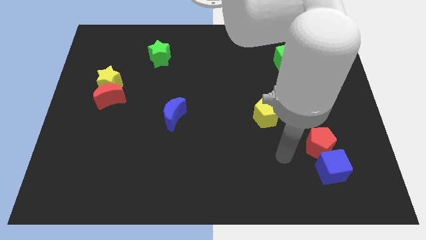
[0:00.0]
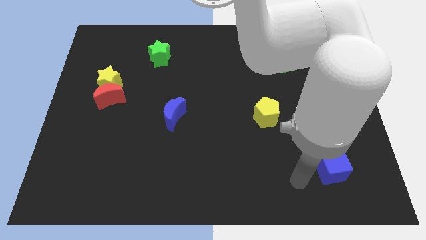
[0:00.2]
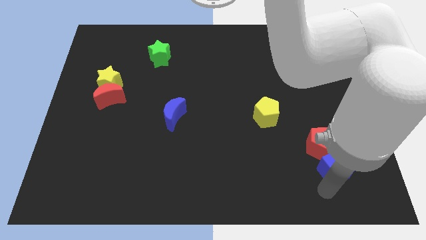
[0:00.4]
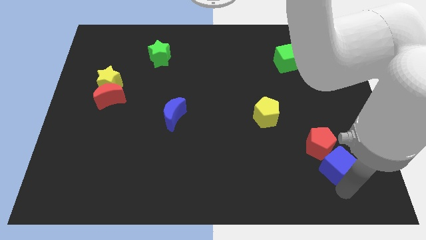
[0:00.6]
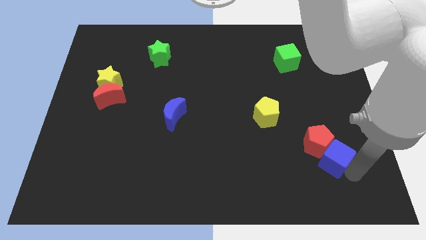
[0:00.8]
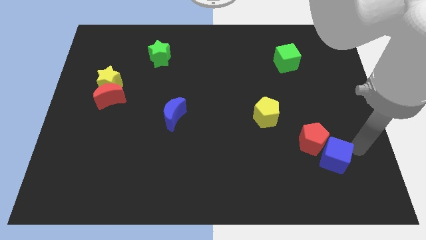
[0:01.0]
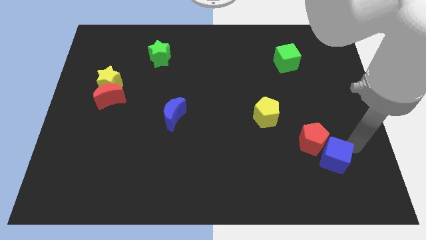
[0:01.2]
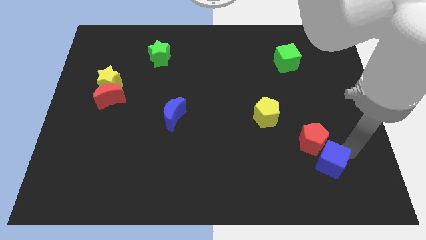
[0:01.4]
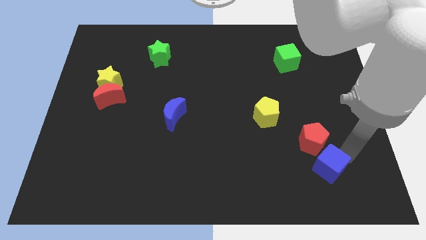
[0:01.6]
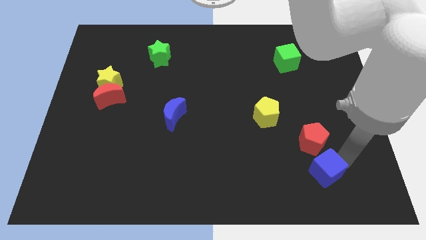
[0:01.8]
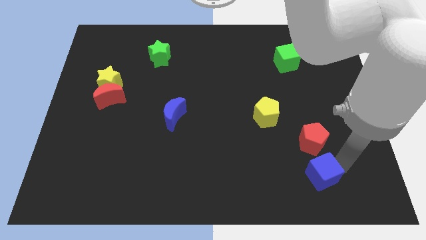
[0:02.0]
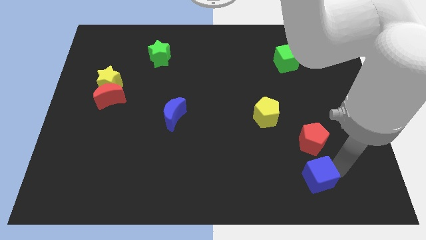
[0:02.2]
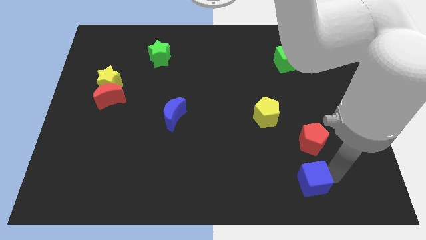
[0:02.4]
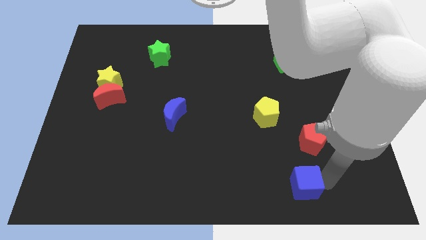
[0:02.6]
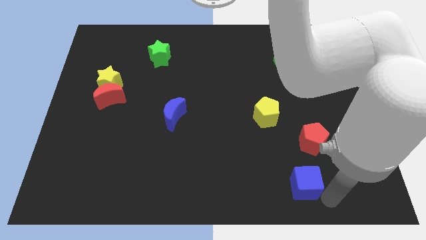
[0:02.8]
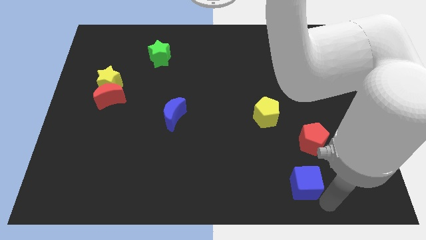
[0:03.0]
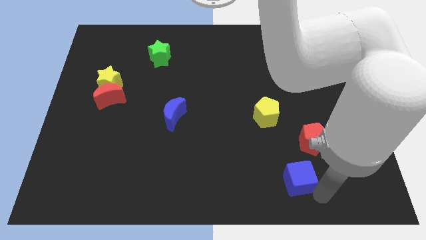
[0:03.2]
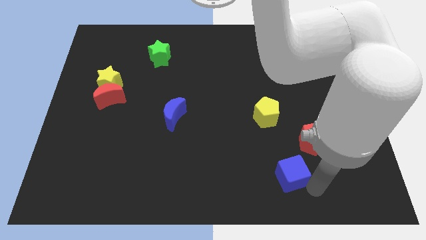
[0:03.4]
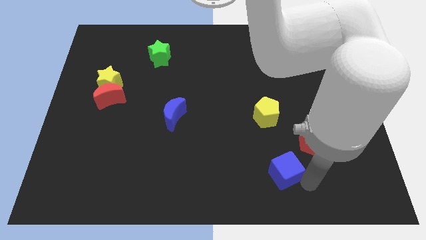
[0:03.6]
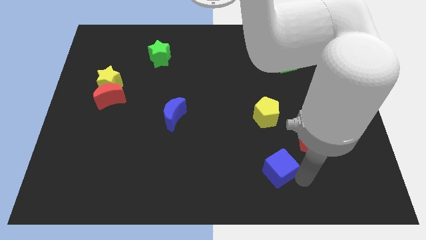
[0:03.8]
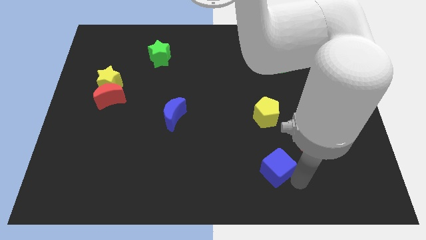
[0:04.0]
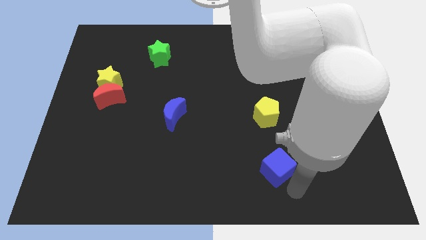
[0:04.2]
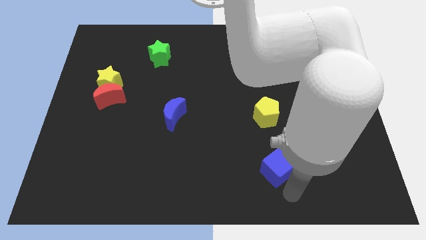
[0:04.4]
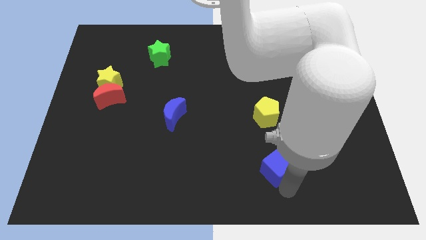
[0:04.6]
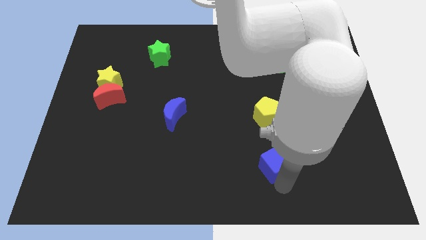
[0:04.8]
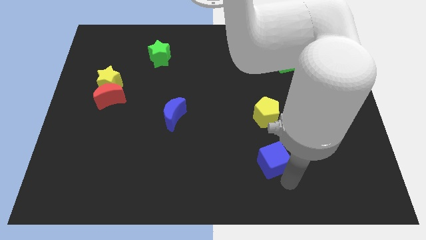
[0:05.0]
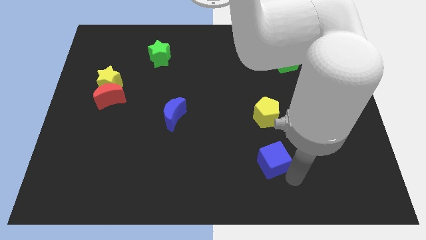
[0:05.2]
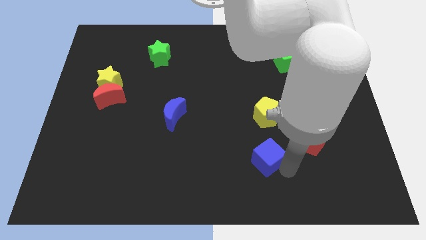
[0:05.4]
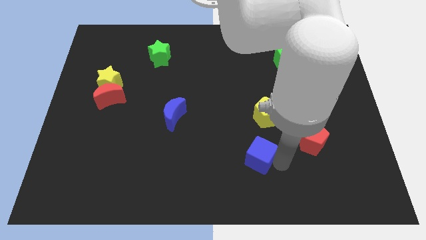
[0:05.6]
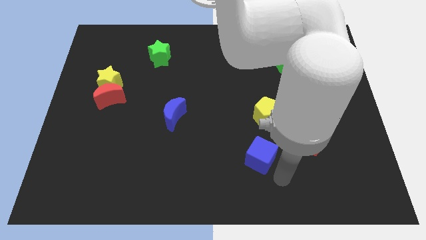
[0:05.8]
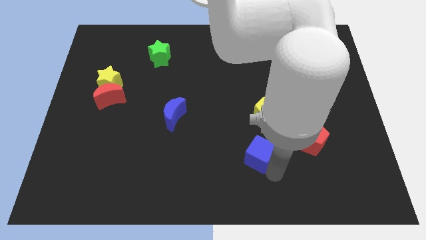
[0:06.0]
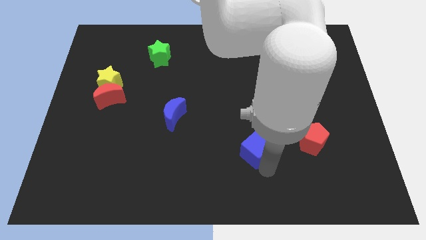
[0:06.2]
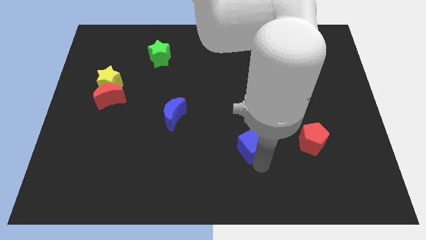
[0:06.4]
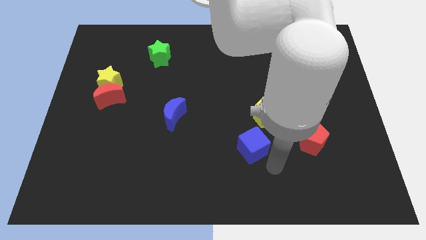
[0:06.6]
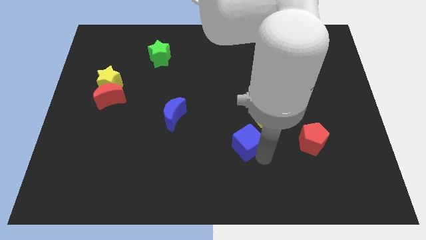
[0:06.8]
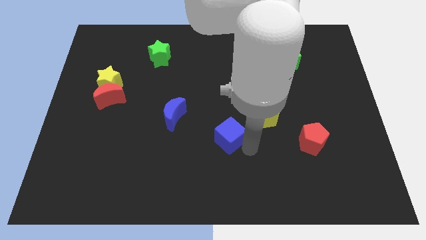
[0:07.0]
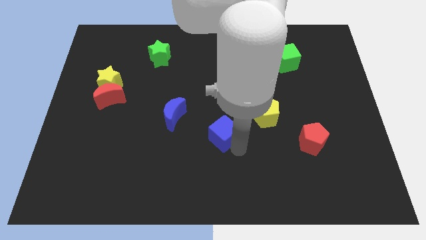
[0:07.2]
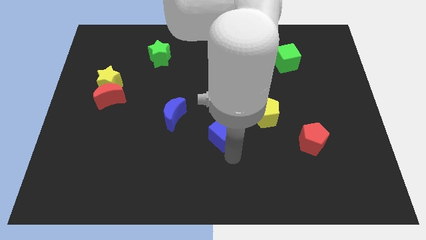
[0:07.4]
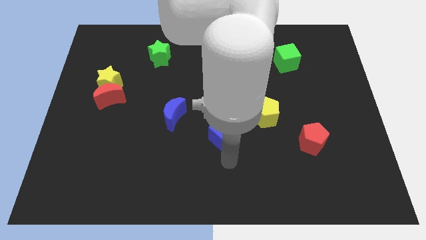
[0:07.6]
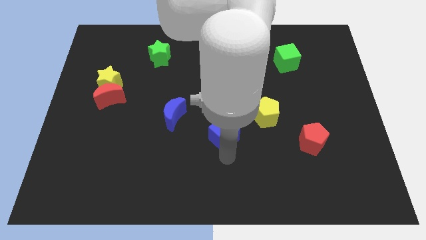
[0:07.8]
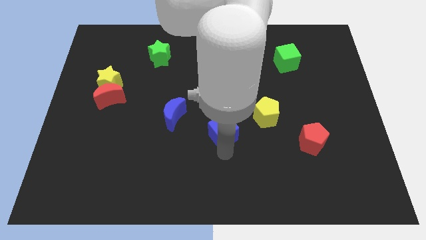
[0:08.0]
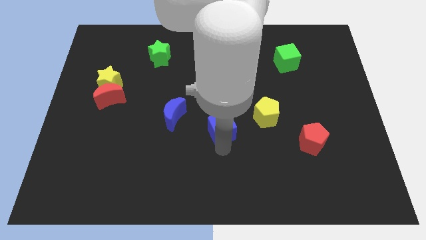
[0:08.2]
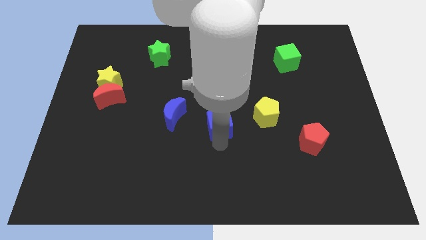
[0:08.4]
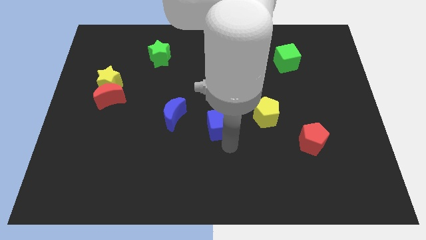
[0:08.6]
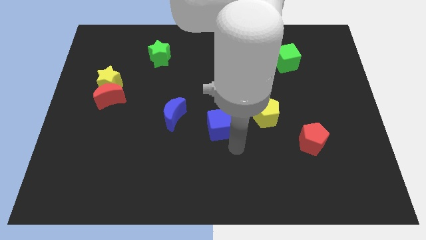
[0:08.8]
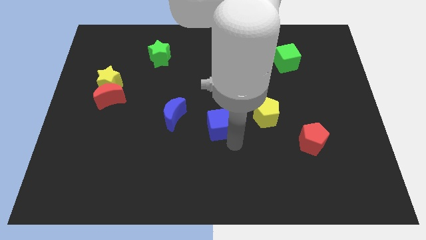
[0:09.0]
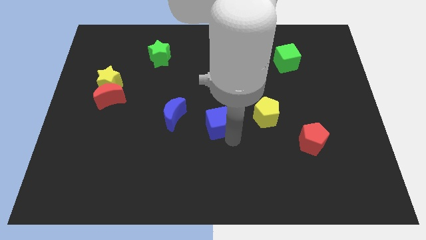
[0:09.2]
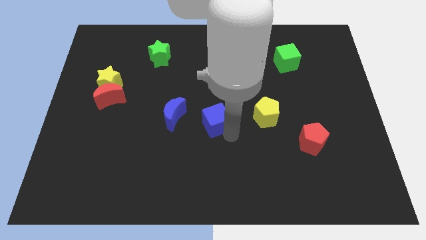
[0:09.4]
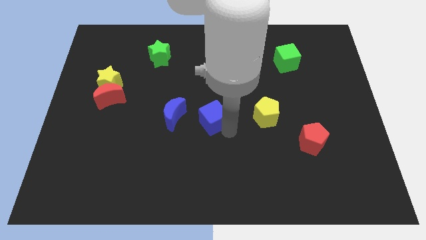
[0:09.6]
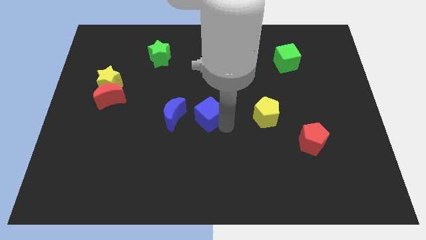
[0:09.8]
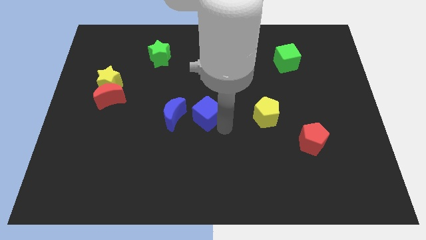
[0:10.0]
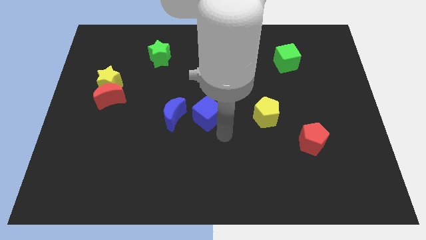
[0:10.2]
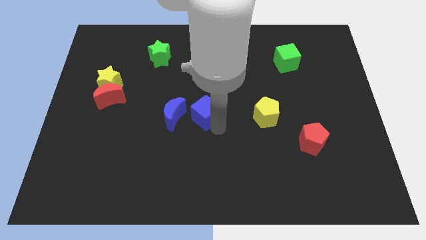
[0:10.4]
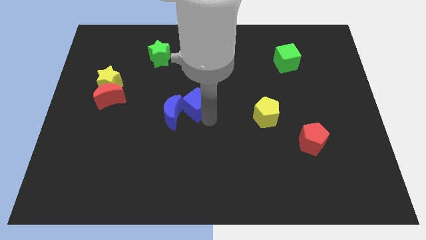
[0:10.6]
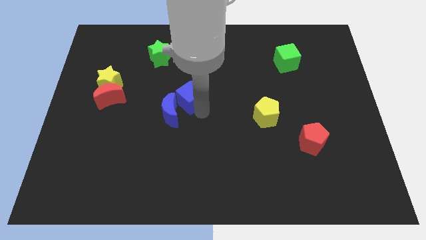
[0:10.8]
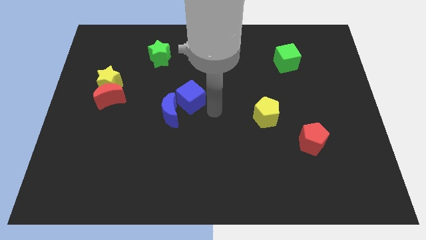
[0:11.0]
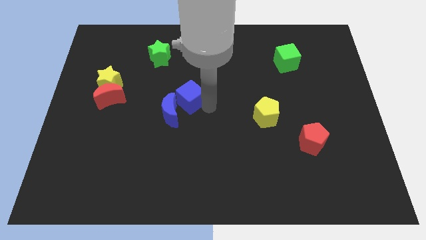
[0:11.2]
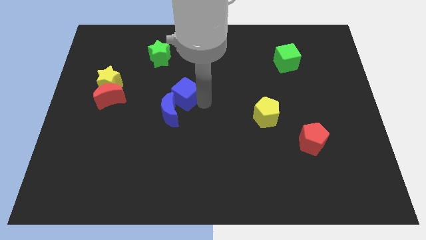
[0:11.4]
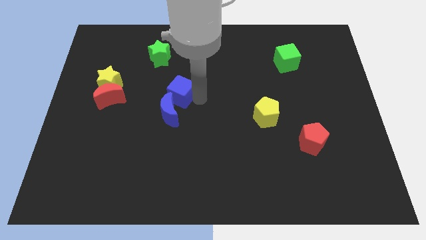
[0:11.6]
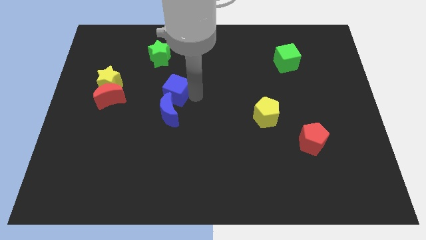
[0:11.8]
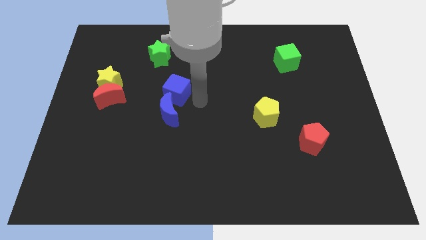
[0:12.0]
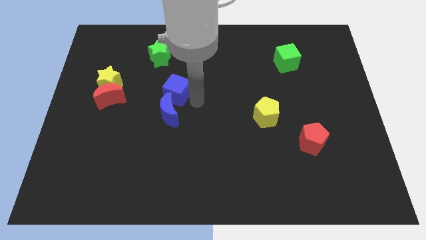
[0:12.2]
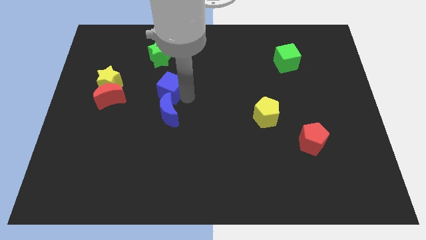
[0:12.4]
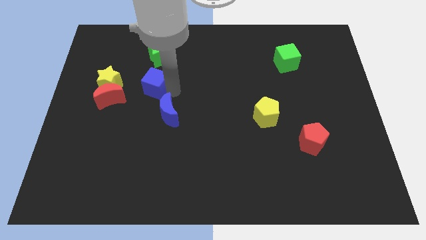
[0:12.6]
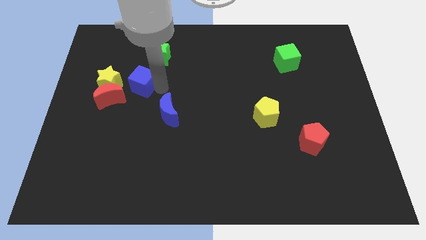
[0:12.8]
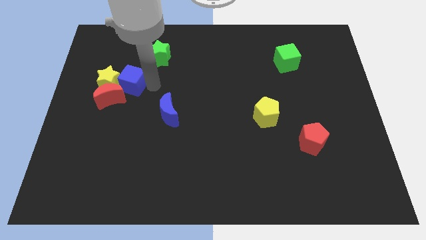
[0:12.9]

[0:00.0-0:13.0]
put the blue cube towards the yellow star

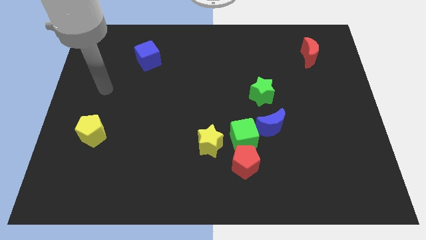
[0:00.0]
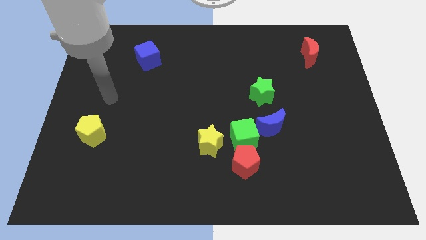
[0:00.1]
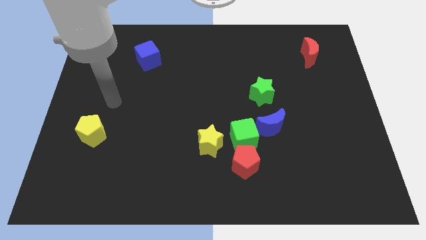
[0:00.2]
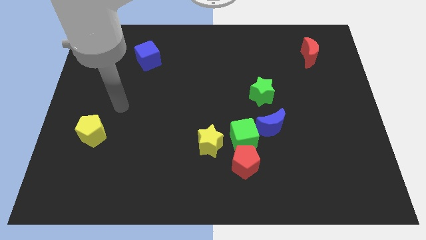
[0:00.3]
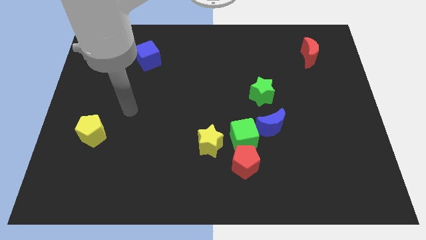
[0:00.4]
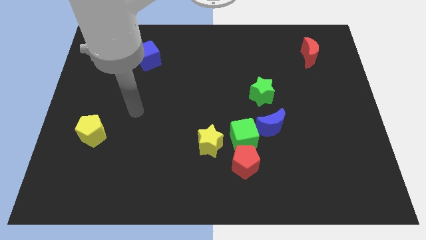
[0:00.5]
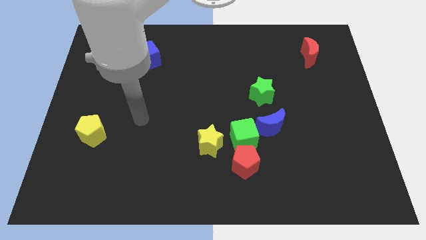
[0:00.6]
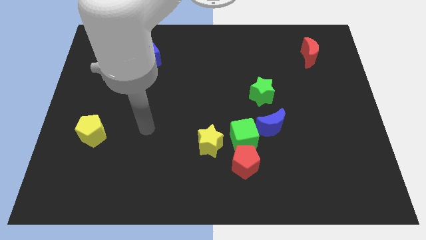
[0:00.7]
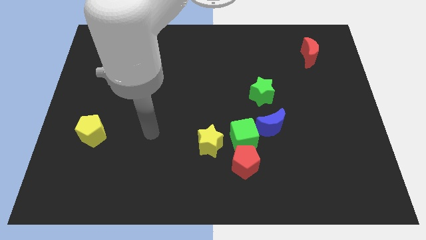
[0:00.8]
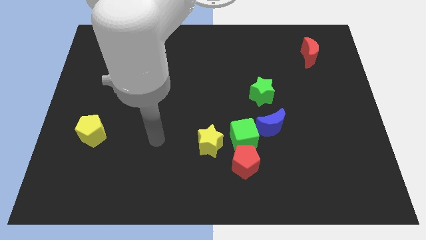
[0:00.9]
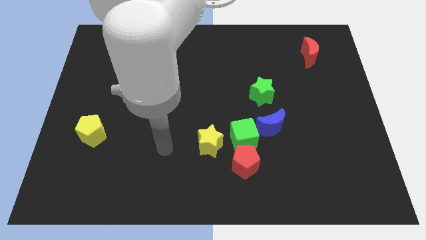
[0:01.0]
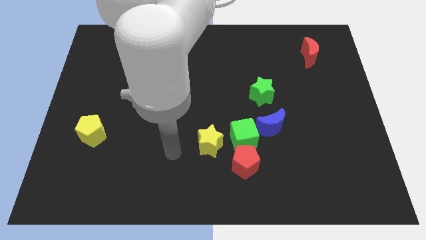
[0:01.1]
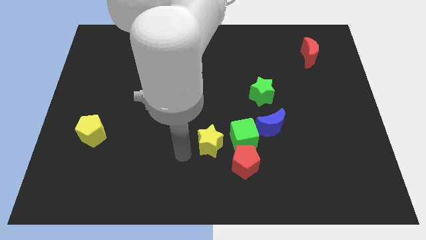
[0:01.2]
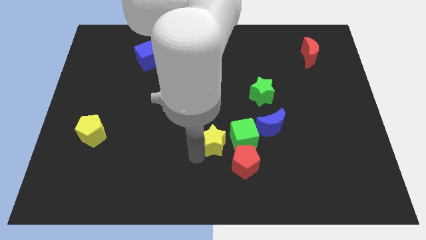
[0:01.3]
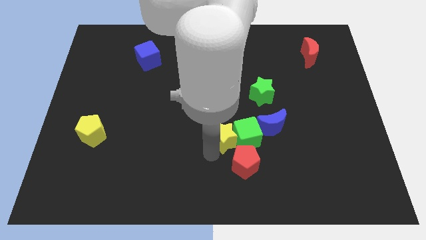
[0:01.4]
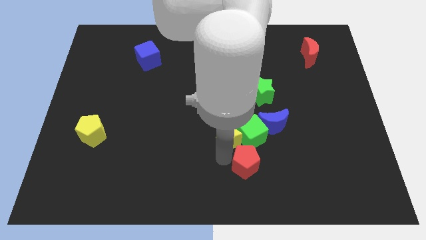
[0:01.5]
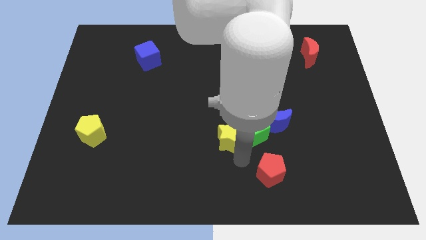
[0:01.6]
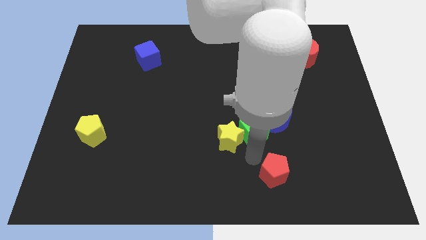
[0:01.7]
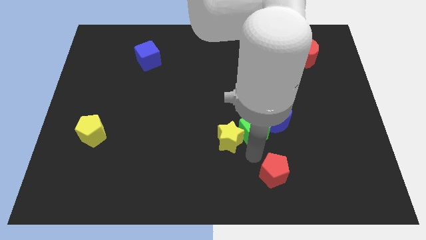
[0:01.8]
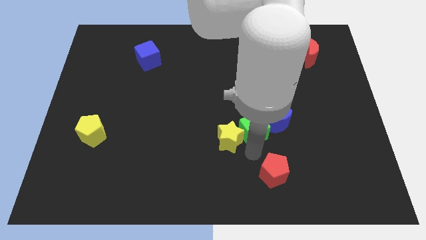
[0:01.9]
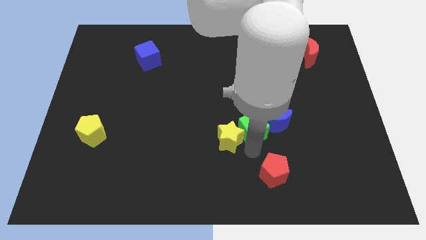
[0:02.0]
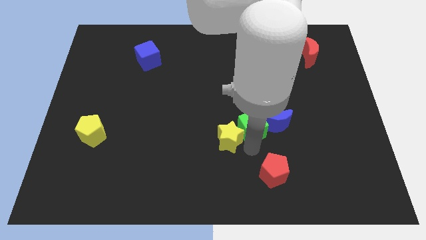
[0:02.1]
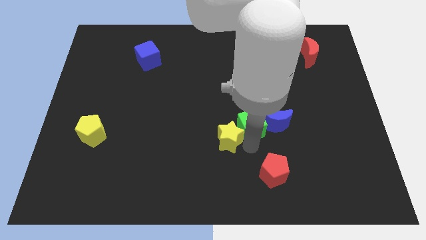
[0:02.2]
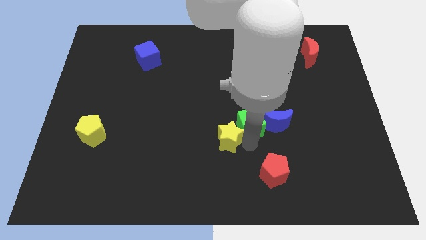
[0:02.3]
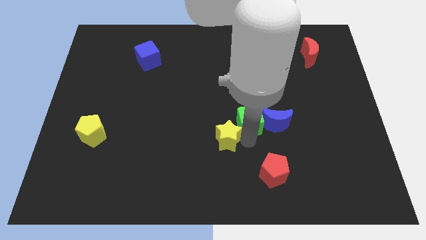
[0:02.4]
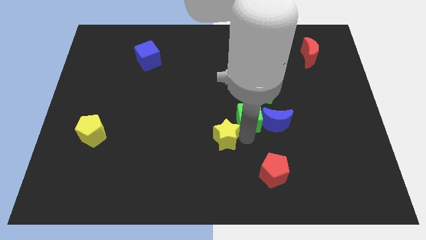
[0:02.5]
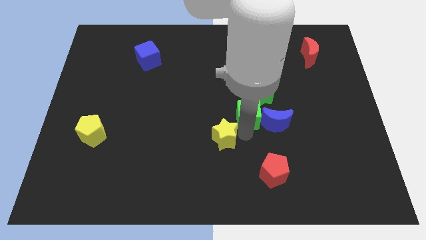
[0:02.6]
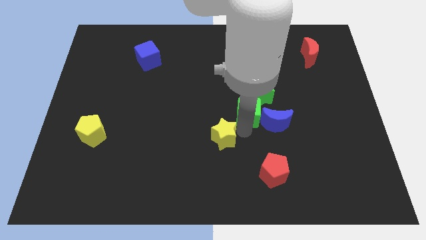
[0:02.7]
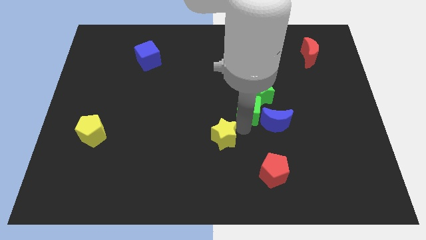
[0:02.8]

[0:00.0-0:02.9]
move the green cube close to the green star
